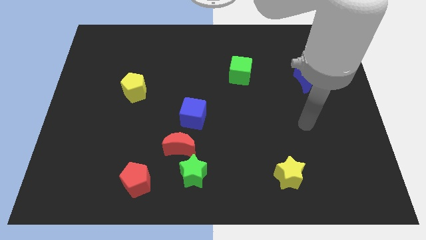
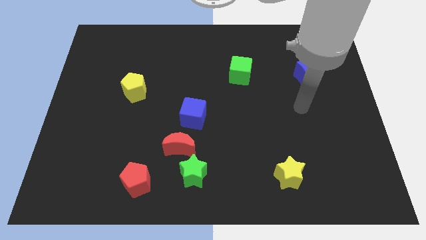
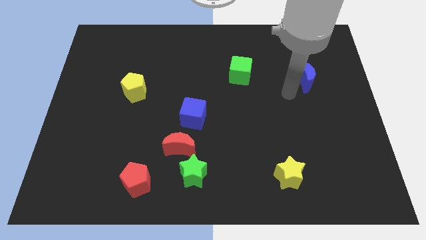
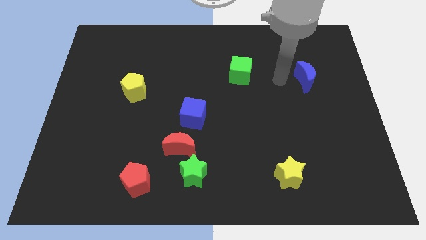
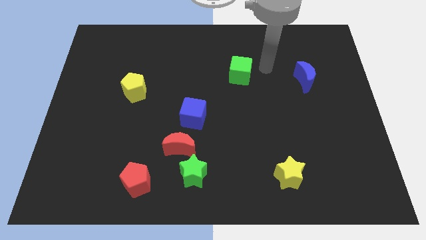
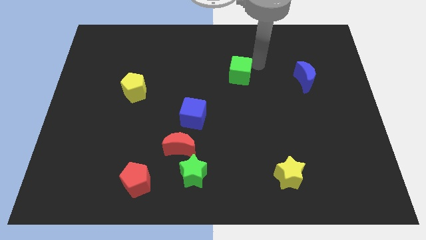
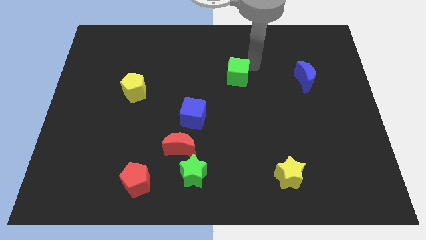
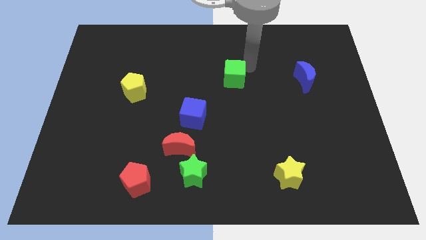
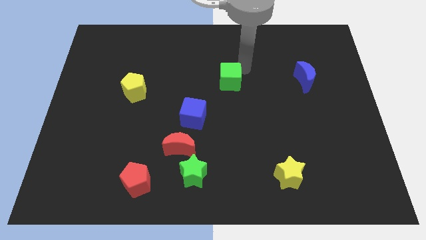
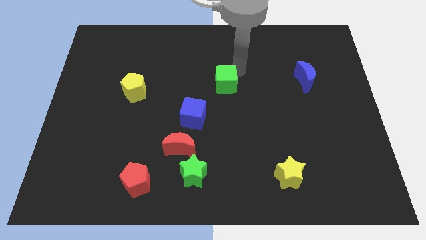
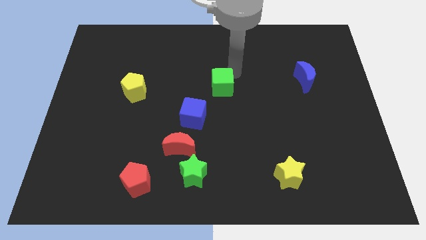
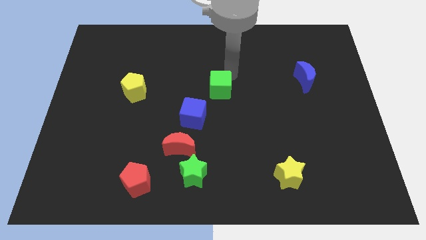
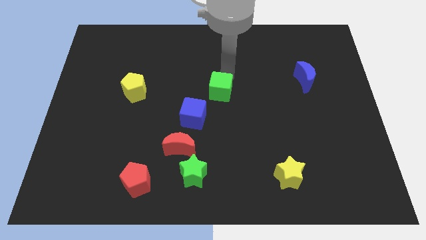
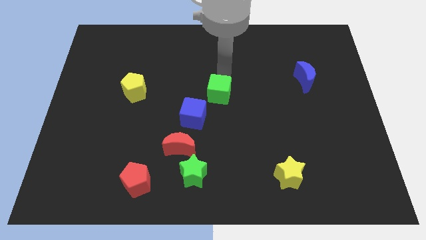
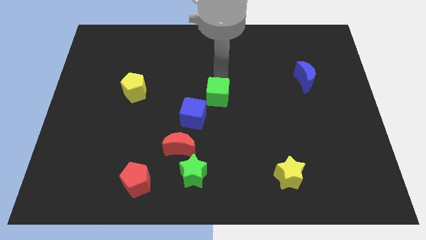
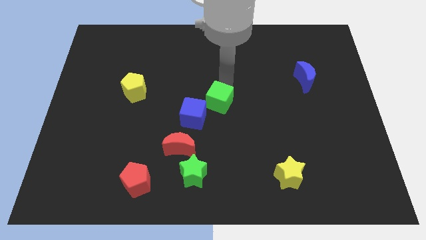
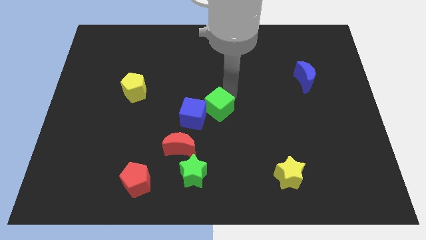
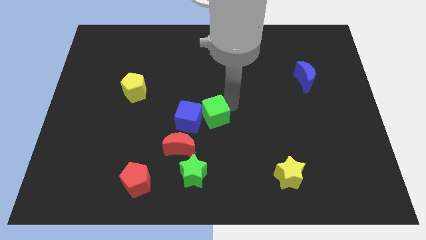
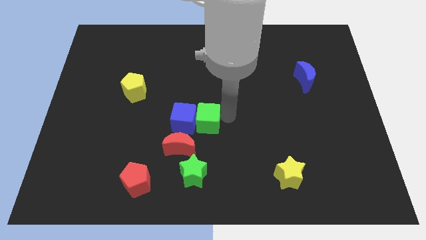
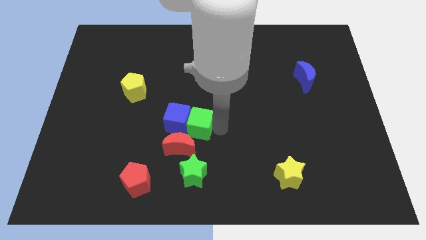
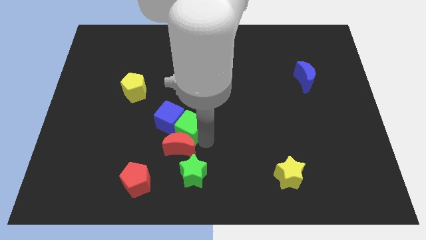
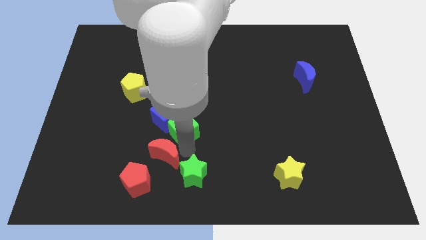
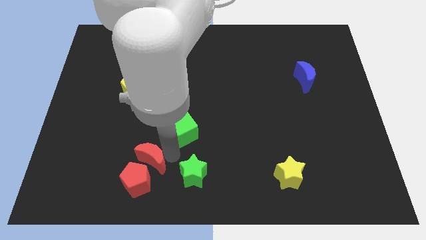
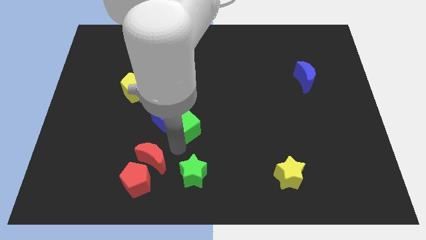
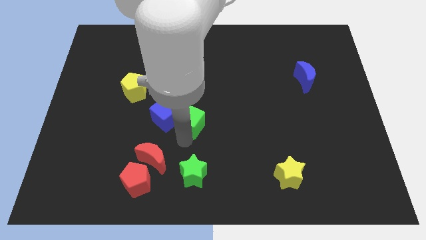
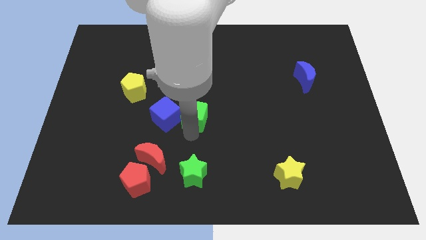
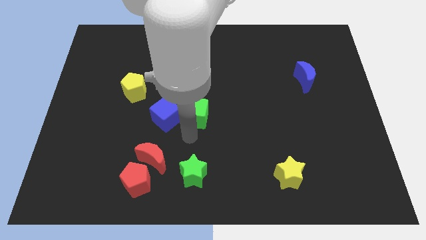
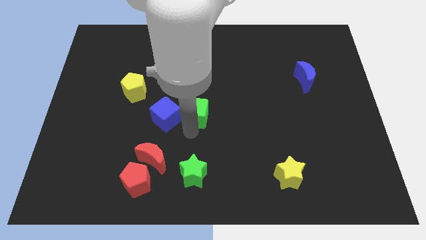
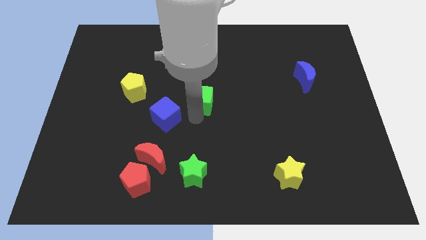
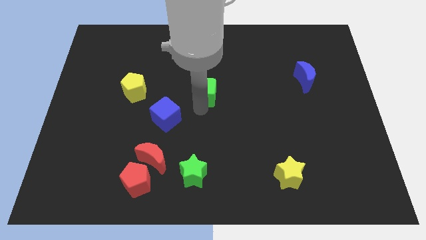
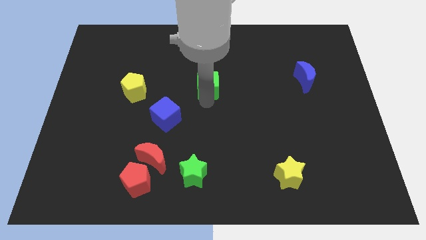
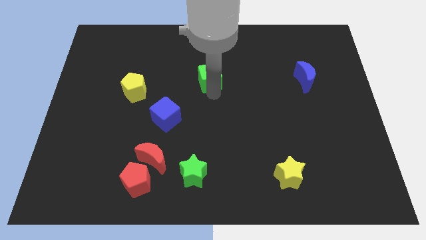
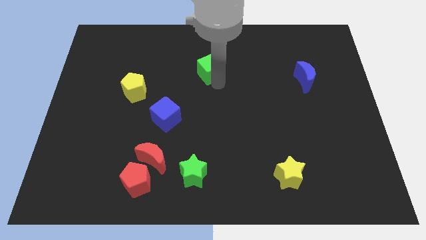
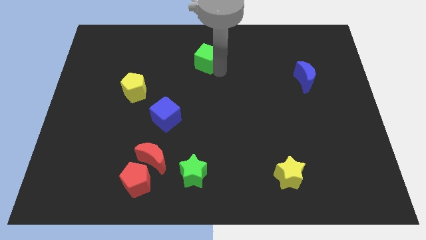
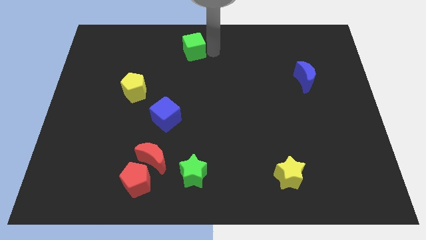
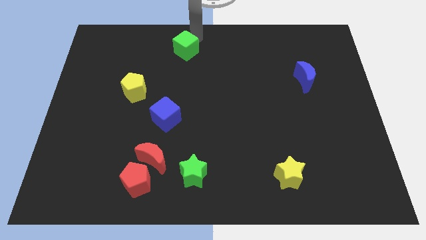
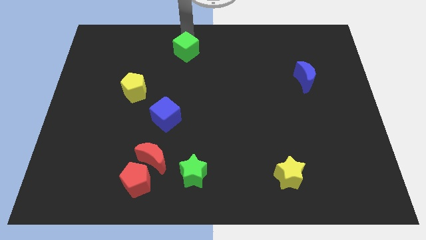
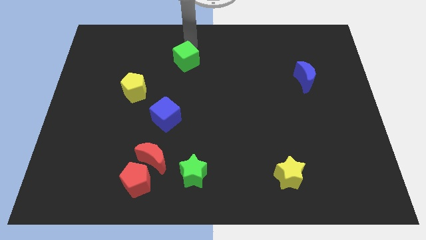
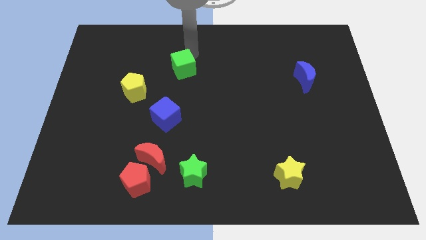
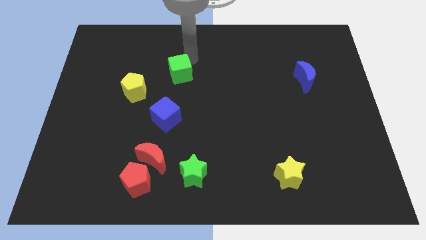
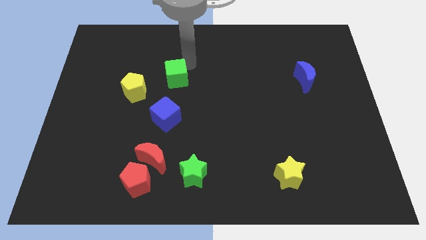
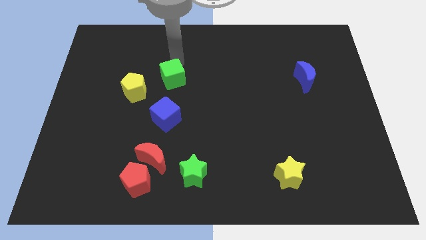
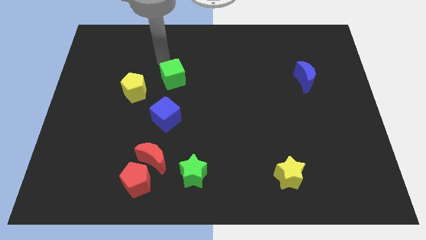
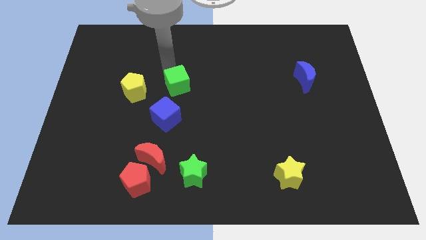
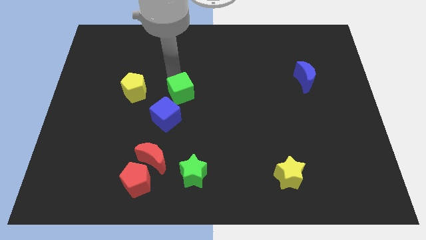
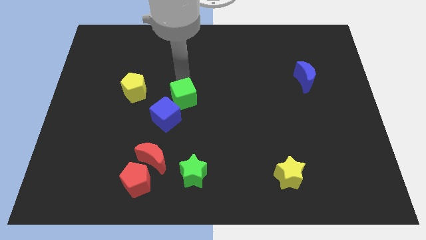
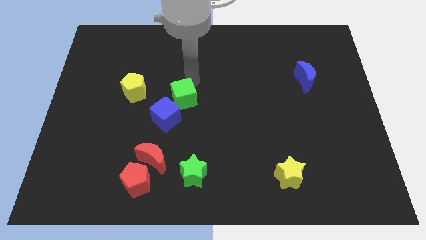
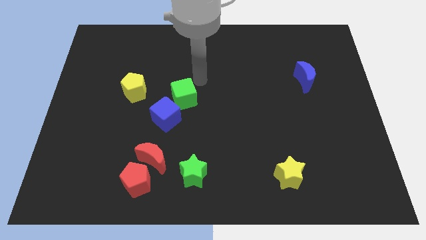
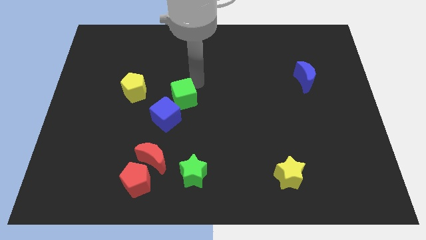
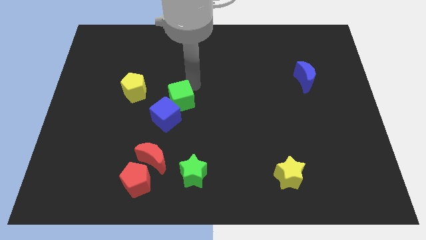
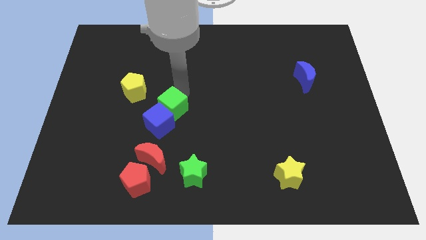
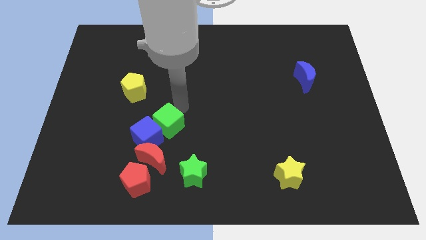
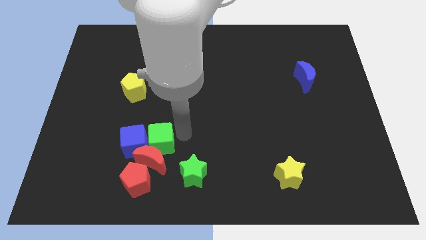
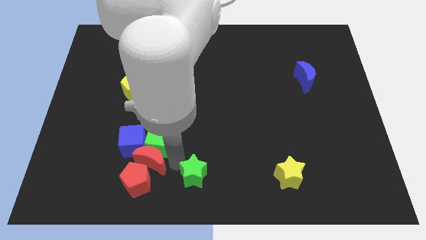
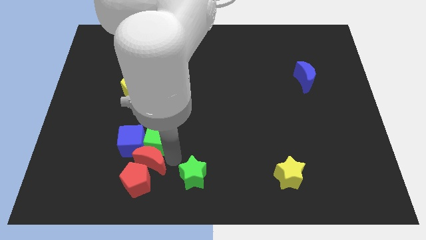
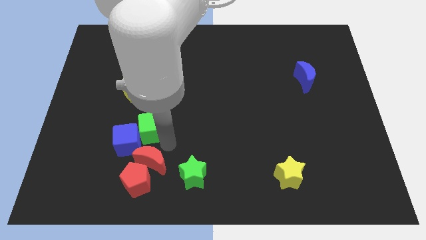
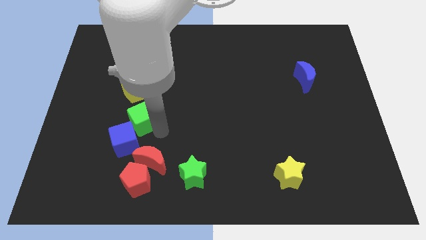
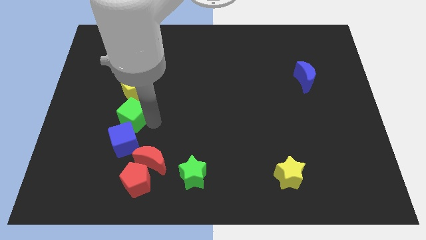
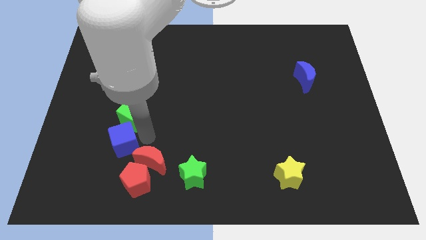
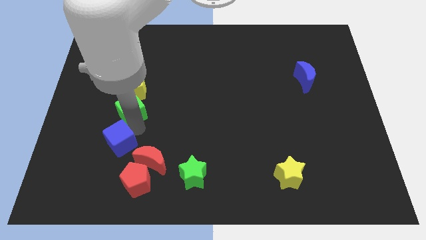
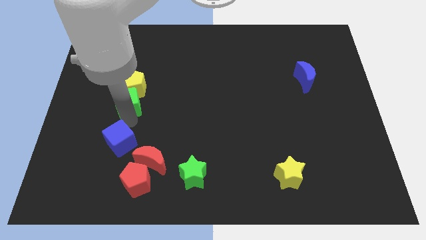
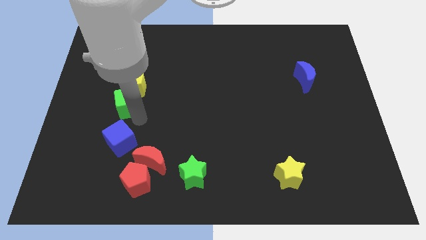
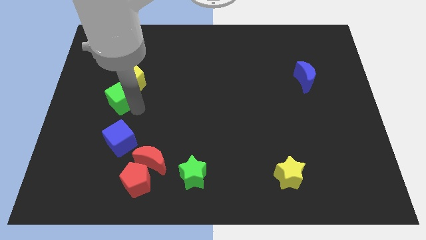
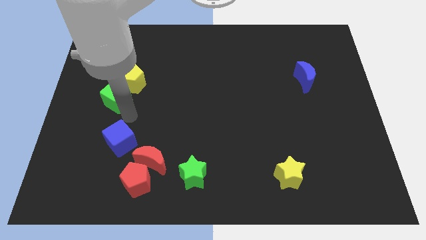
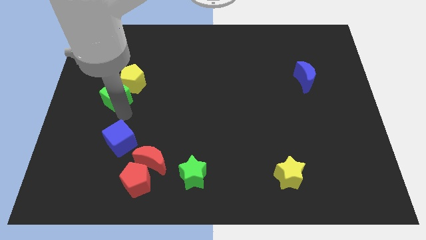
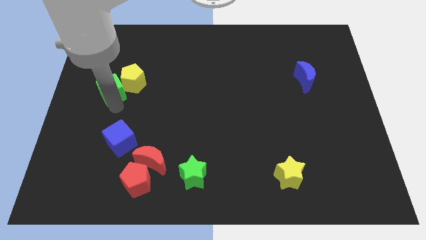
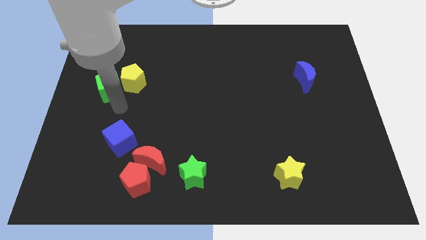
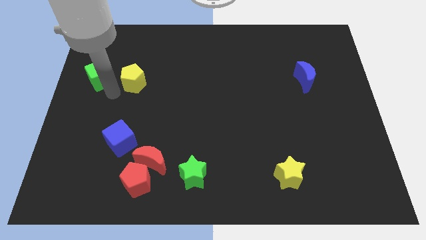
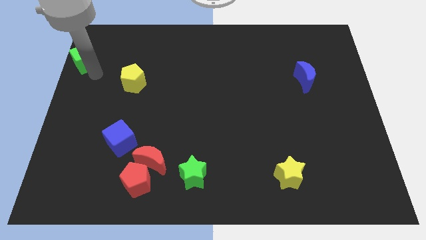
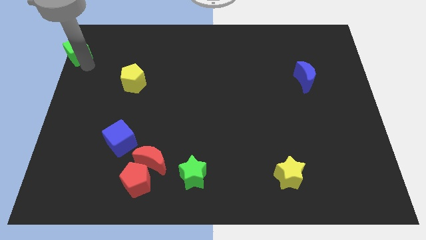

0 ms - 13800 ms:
slide the green cube to the top left
